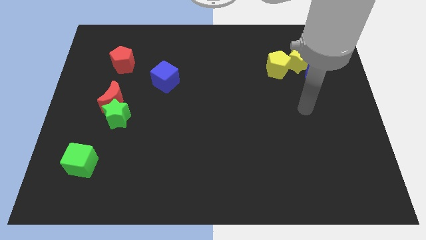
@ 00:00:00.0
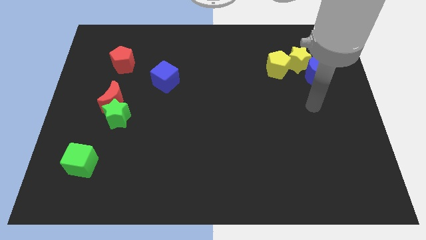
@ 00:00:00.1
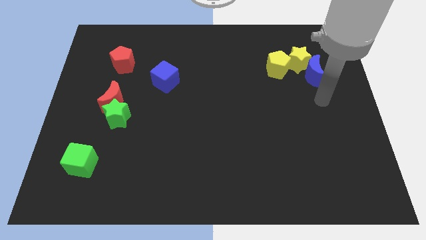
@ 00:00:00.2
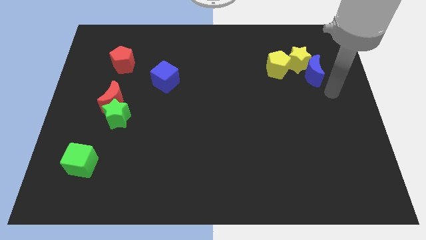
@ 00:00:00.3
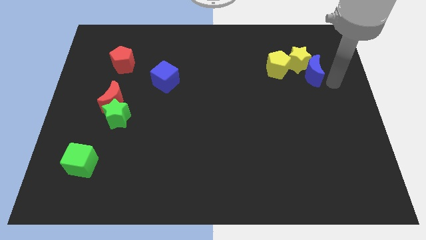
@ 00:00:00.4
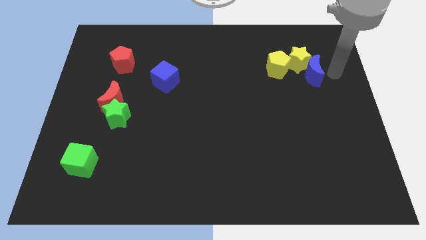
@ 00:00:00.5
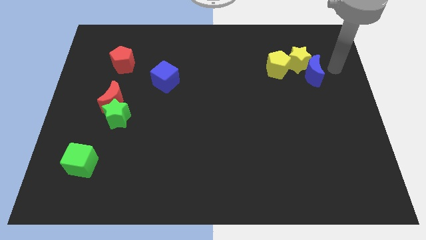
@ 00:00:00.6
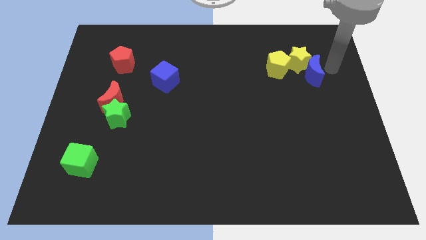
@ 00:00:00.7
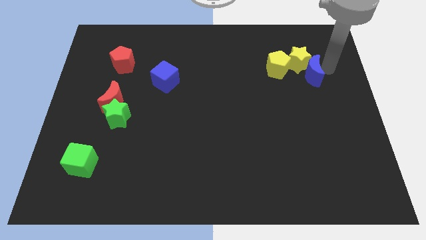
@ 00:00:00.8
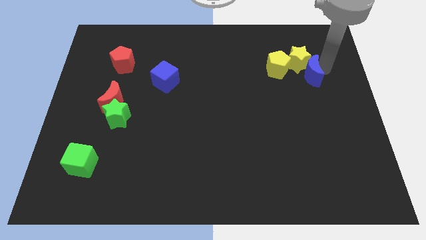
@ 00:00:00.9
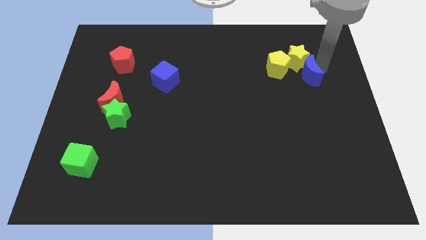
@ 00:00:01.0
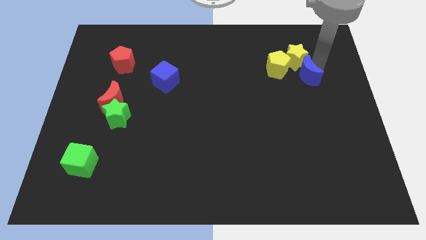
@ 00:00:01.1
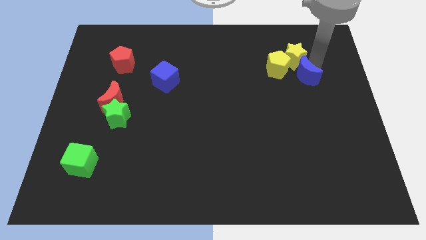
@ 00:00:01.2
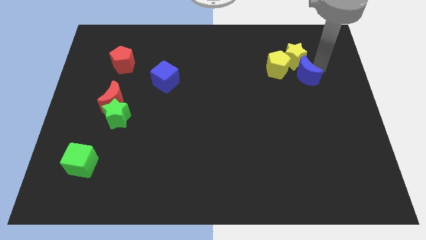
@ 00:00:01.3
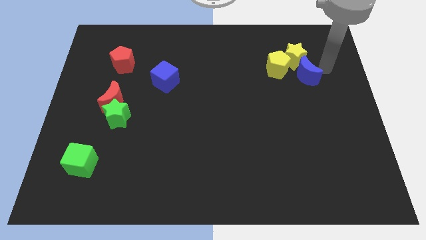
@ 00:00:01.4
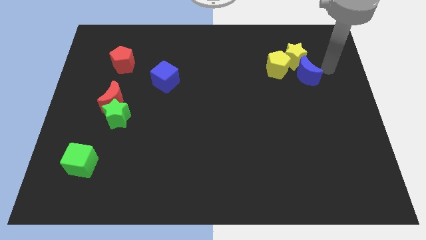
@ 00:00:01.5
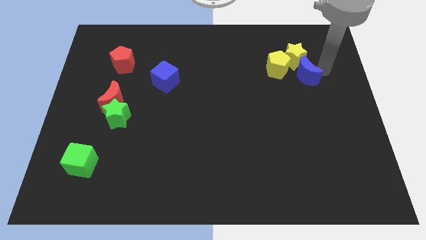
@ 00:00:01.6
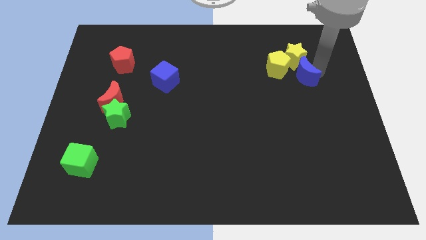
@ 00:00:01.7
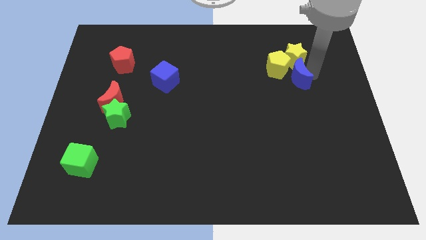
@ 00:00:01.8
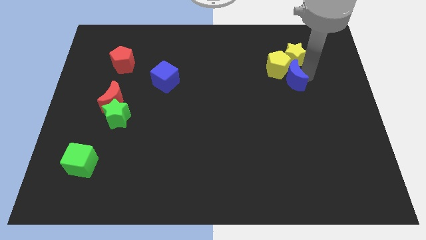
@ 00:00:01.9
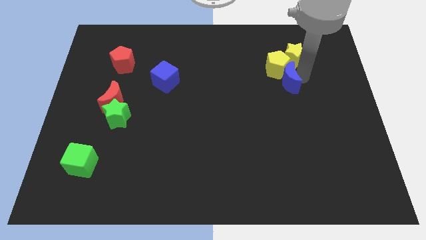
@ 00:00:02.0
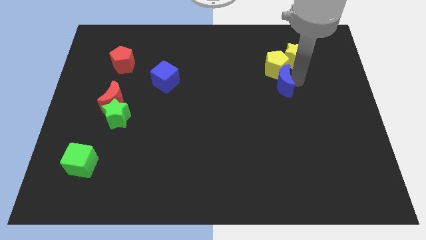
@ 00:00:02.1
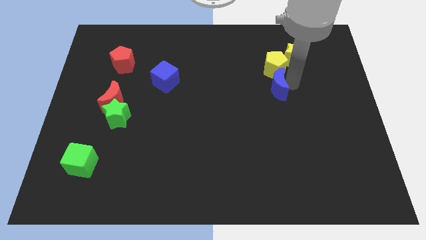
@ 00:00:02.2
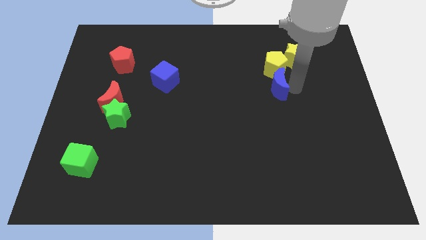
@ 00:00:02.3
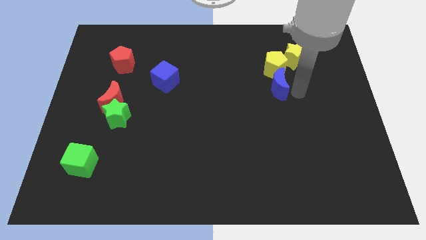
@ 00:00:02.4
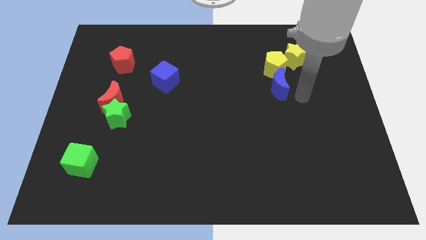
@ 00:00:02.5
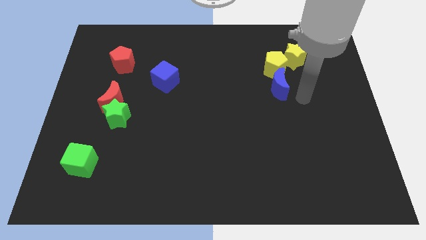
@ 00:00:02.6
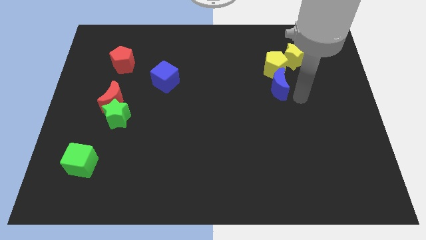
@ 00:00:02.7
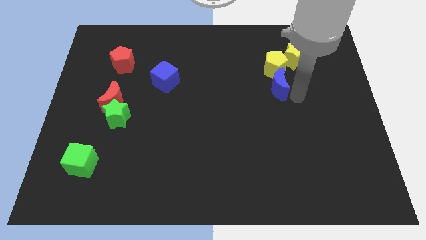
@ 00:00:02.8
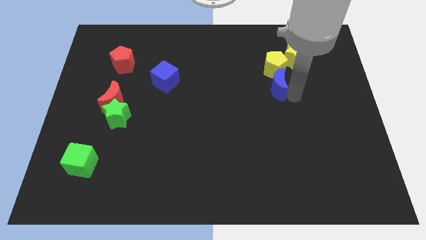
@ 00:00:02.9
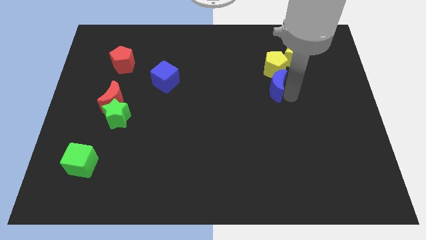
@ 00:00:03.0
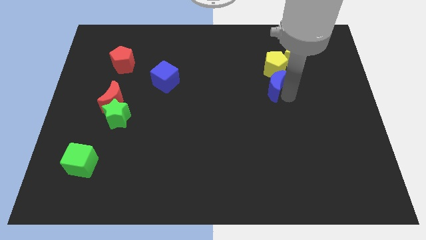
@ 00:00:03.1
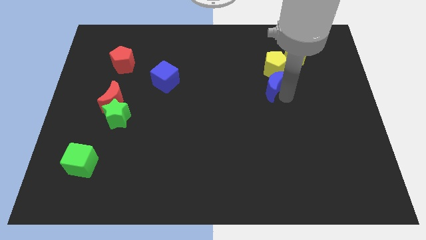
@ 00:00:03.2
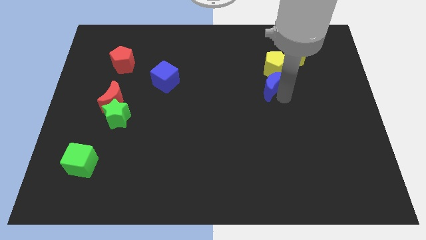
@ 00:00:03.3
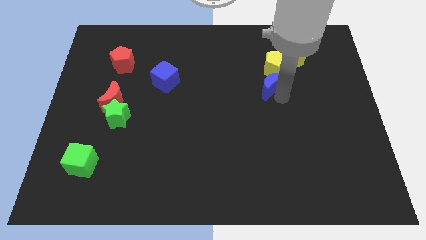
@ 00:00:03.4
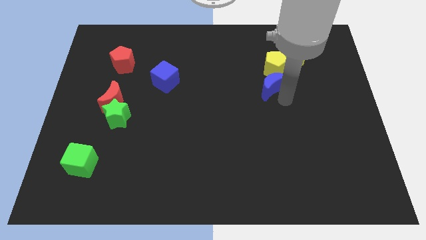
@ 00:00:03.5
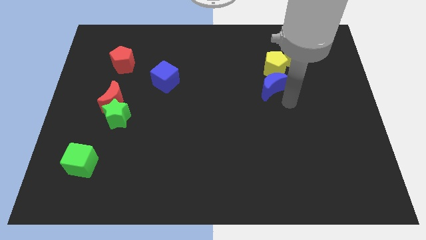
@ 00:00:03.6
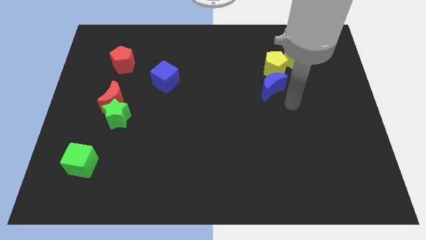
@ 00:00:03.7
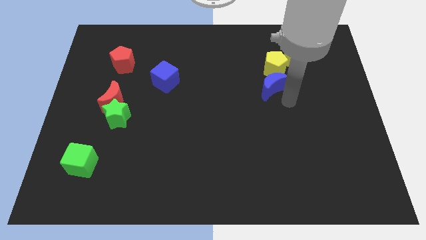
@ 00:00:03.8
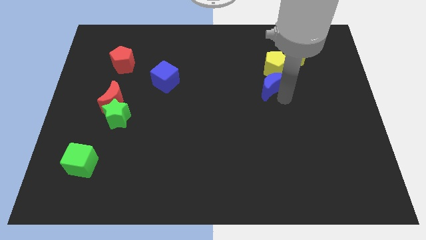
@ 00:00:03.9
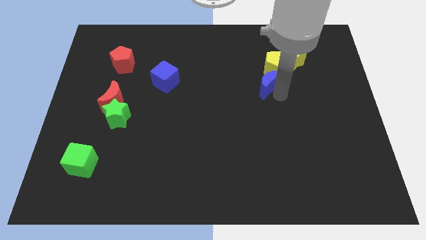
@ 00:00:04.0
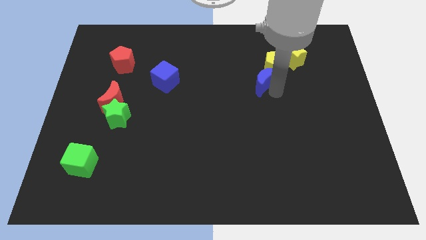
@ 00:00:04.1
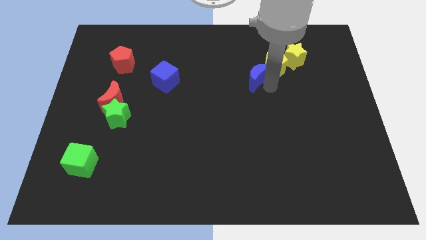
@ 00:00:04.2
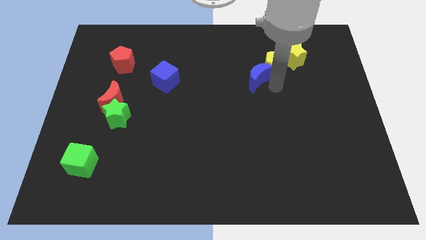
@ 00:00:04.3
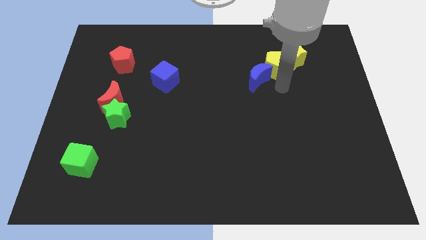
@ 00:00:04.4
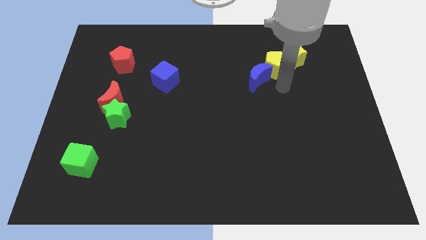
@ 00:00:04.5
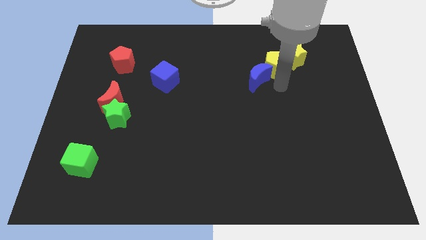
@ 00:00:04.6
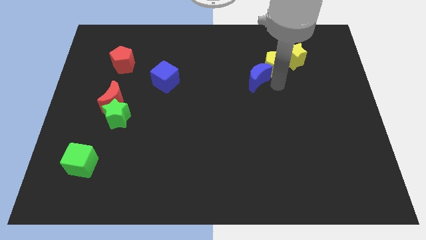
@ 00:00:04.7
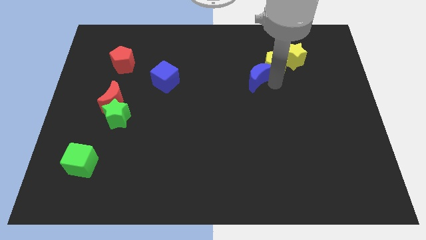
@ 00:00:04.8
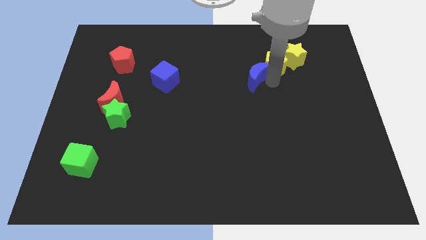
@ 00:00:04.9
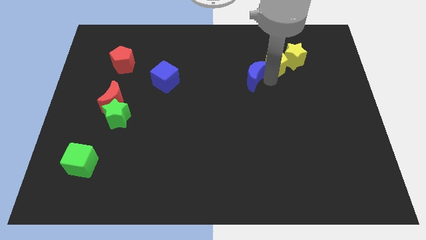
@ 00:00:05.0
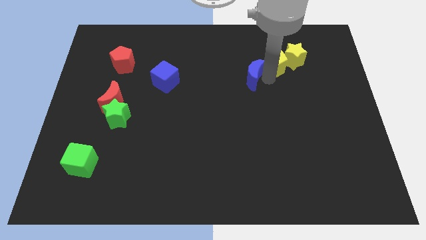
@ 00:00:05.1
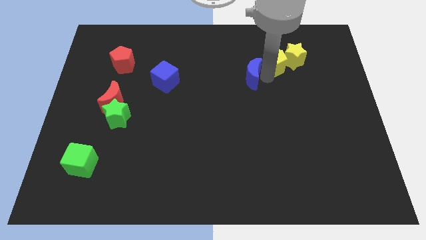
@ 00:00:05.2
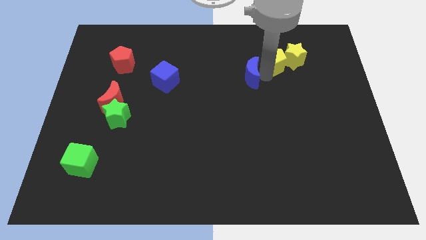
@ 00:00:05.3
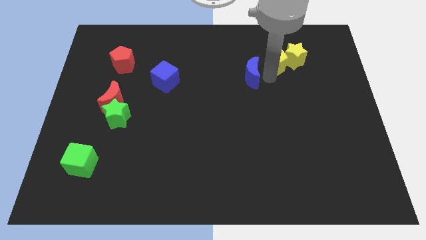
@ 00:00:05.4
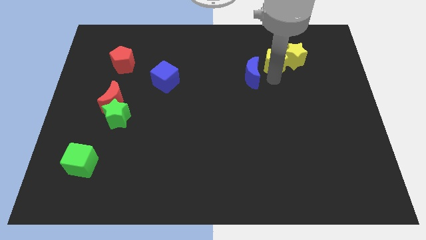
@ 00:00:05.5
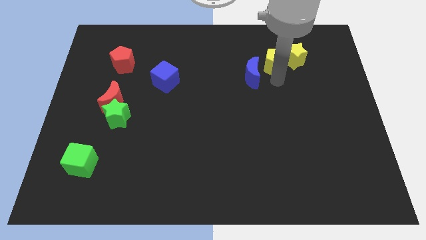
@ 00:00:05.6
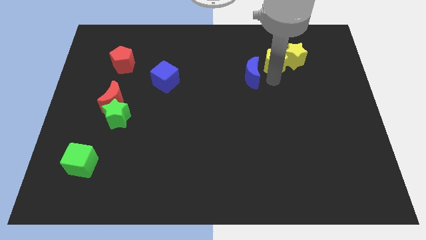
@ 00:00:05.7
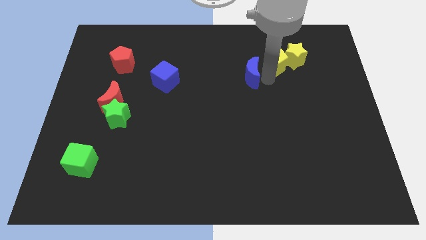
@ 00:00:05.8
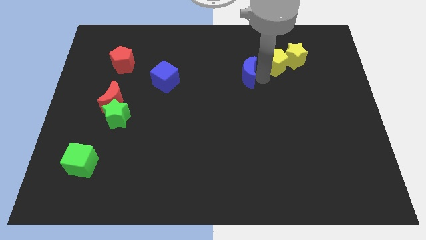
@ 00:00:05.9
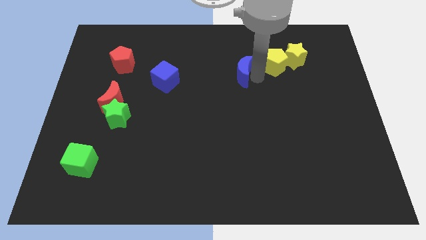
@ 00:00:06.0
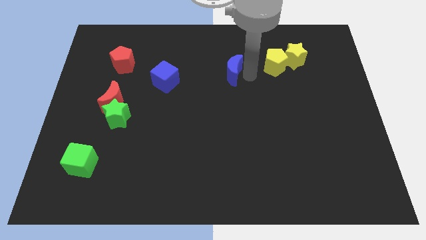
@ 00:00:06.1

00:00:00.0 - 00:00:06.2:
push the blue moon left

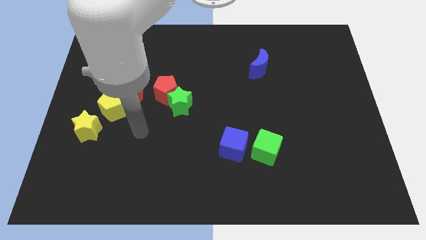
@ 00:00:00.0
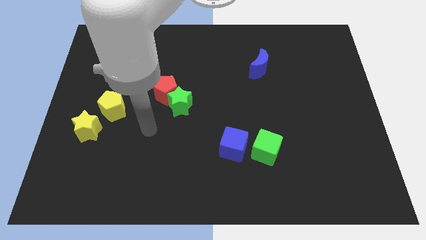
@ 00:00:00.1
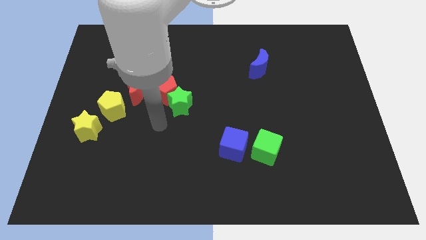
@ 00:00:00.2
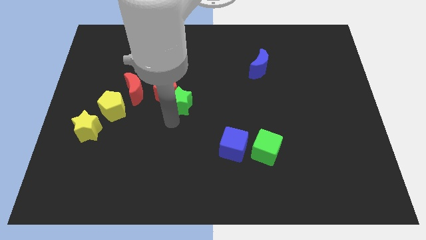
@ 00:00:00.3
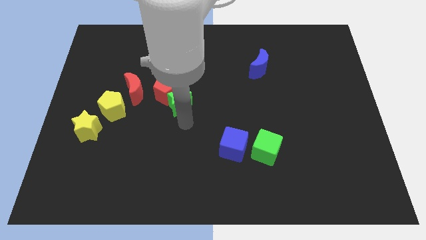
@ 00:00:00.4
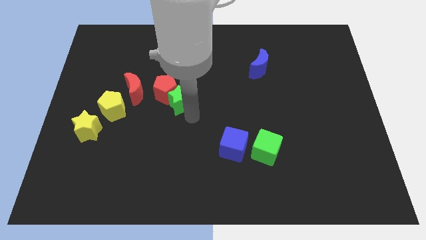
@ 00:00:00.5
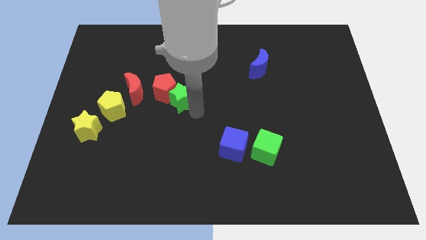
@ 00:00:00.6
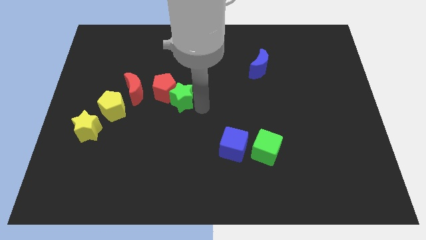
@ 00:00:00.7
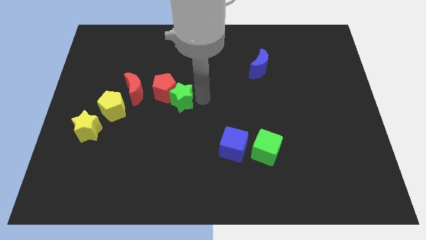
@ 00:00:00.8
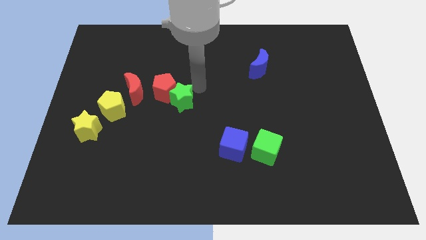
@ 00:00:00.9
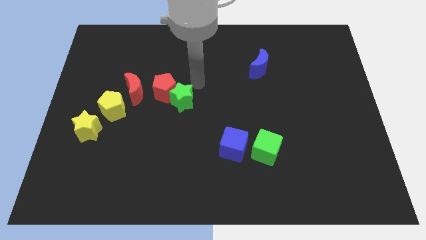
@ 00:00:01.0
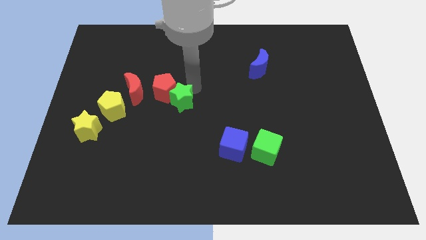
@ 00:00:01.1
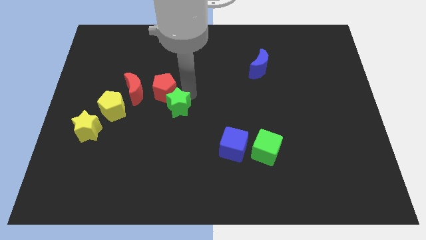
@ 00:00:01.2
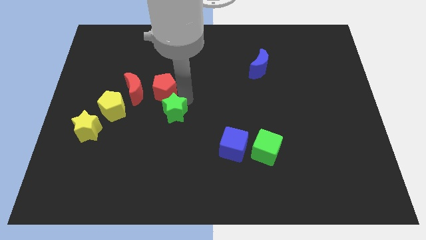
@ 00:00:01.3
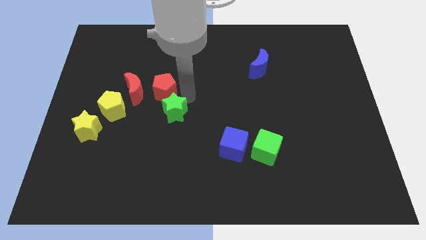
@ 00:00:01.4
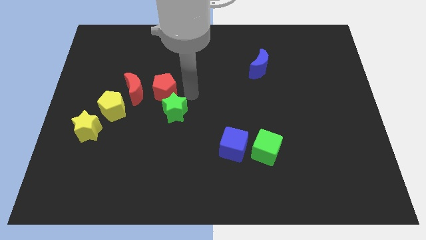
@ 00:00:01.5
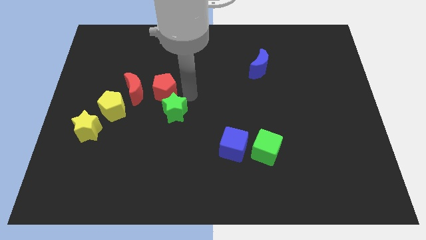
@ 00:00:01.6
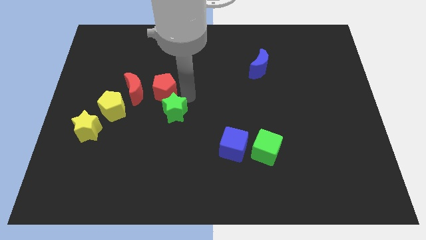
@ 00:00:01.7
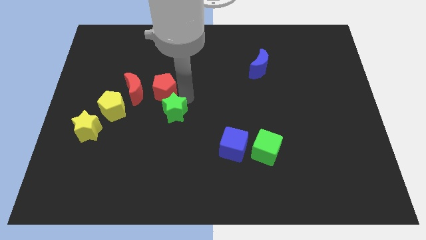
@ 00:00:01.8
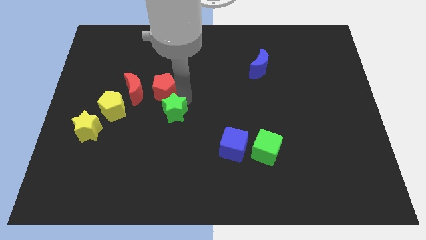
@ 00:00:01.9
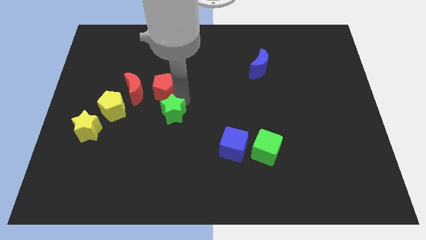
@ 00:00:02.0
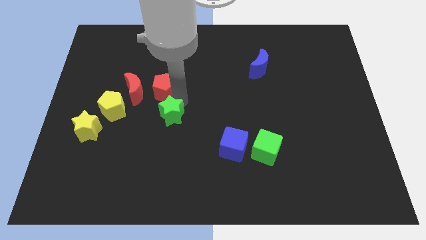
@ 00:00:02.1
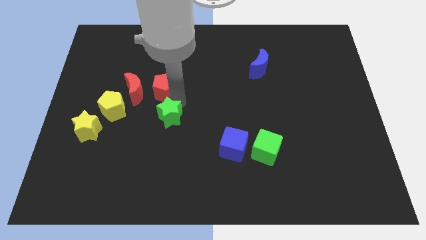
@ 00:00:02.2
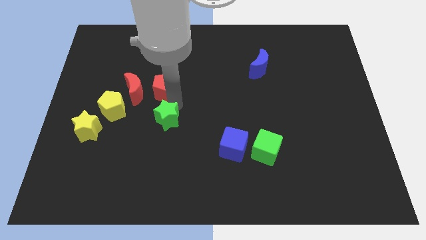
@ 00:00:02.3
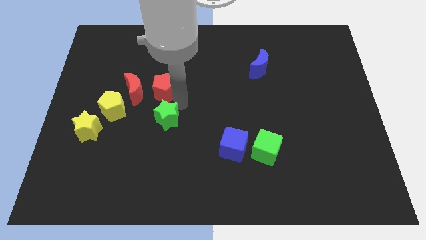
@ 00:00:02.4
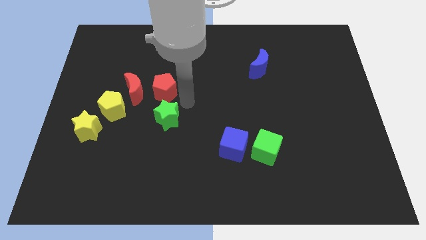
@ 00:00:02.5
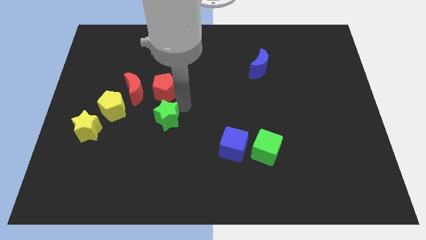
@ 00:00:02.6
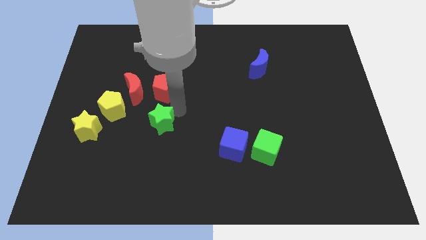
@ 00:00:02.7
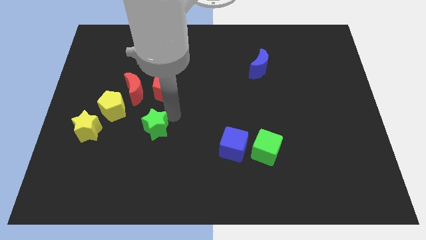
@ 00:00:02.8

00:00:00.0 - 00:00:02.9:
slide the green star down and to the left a little bit
